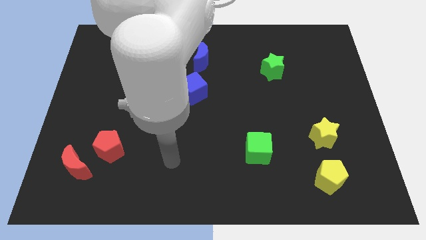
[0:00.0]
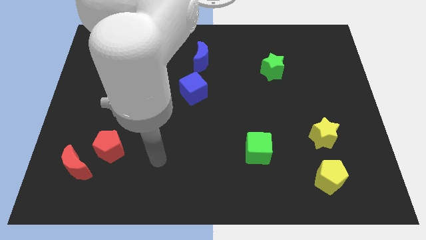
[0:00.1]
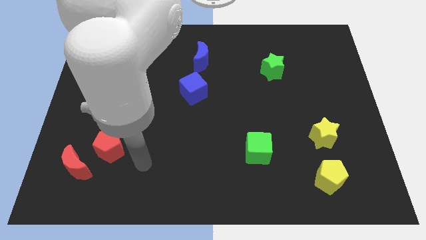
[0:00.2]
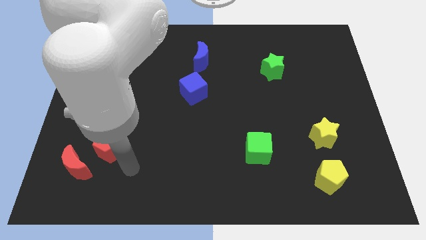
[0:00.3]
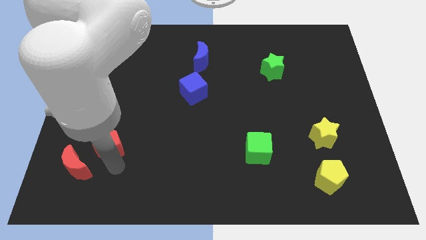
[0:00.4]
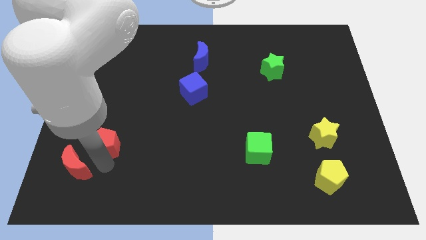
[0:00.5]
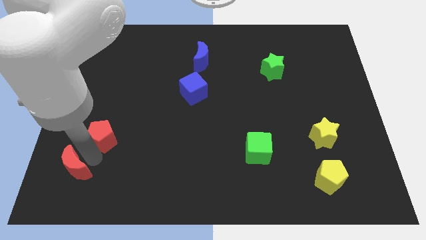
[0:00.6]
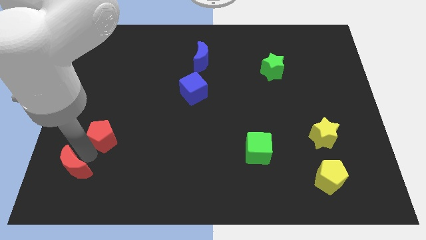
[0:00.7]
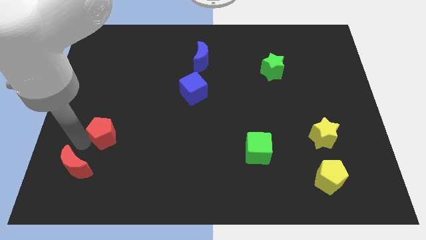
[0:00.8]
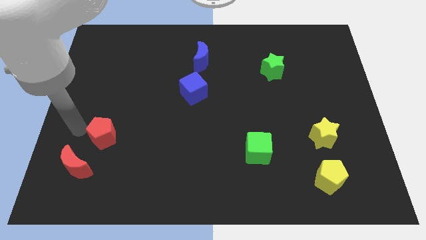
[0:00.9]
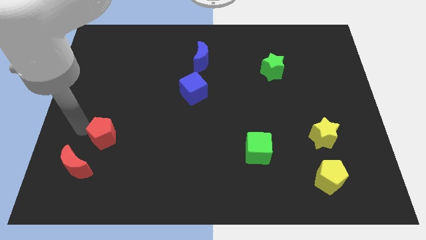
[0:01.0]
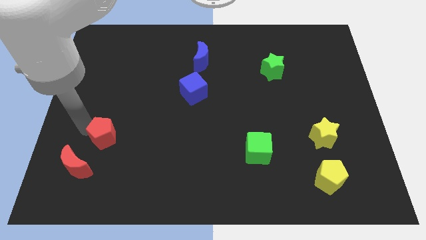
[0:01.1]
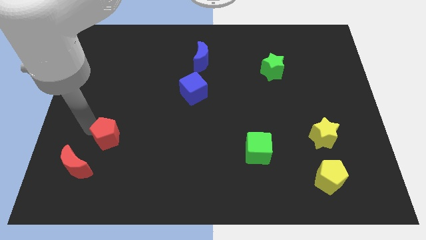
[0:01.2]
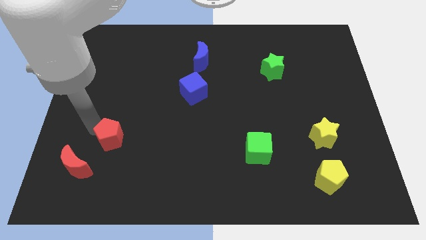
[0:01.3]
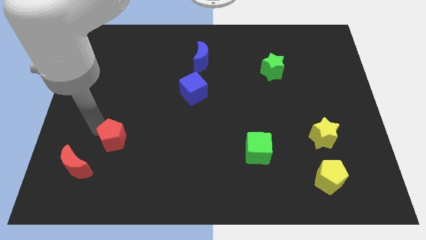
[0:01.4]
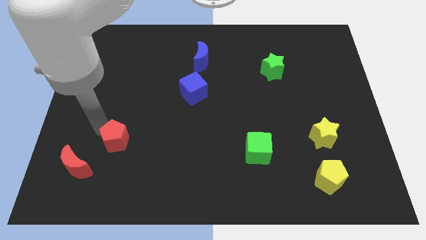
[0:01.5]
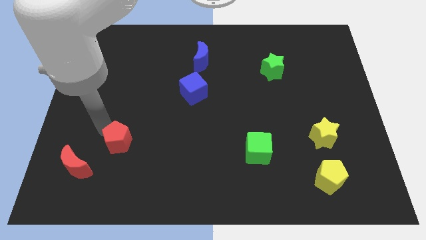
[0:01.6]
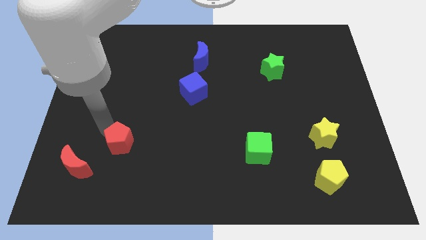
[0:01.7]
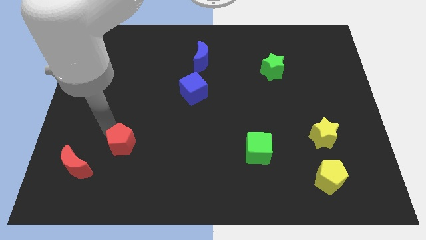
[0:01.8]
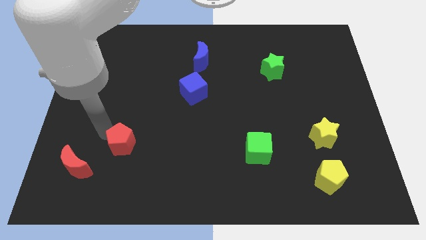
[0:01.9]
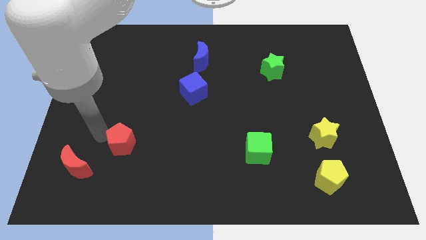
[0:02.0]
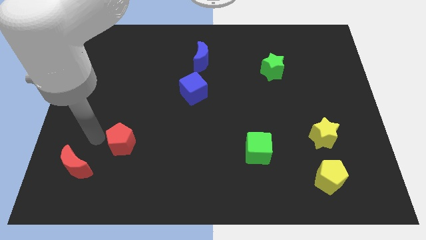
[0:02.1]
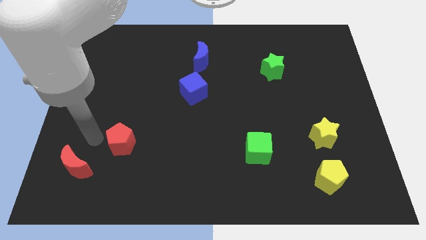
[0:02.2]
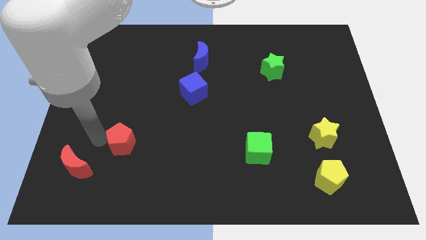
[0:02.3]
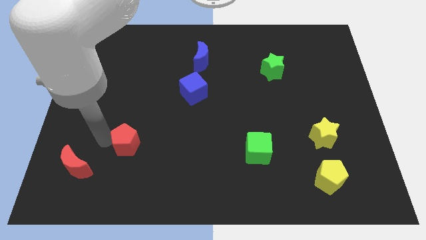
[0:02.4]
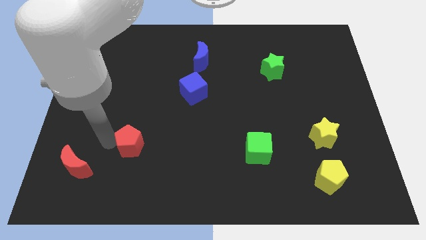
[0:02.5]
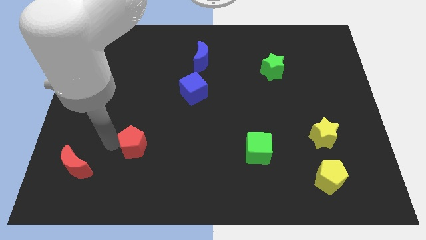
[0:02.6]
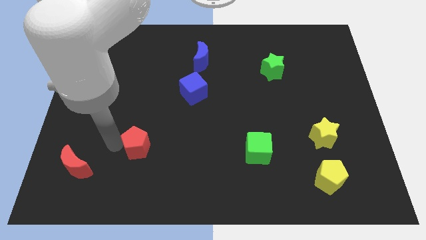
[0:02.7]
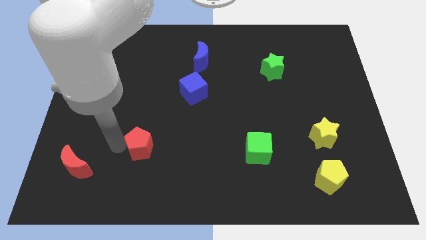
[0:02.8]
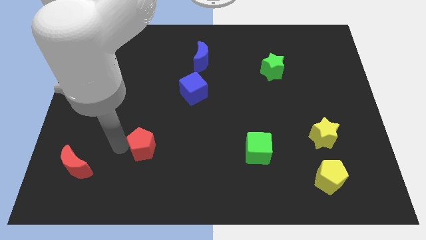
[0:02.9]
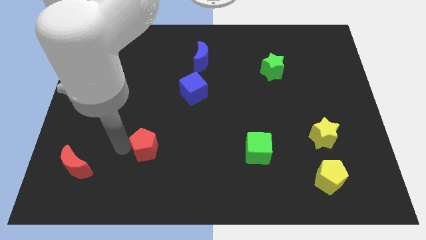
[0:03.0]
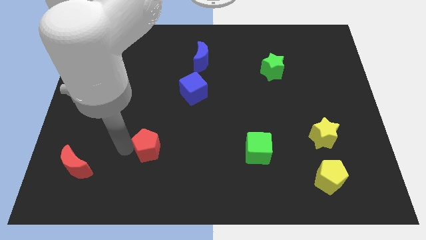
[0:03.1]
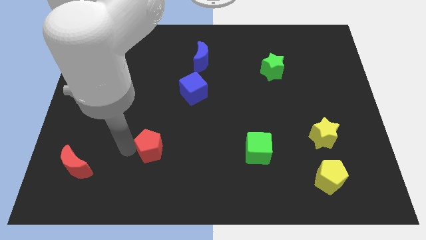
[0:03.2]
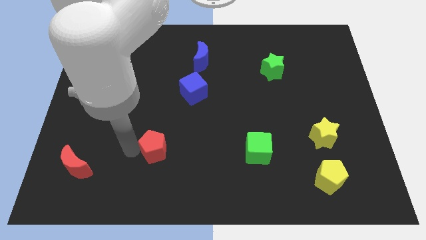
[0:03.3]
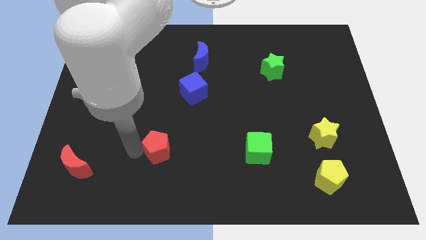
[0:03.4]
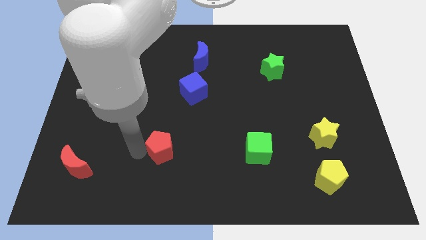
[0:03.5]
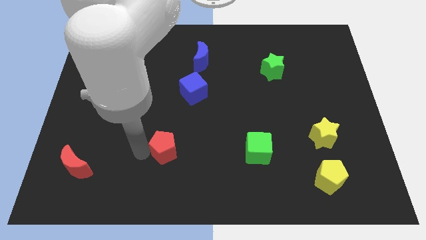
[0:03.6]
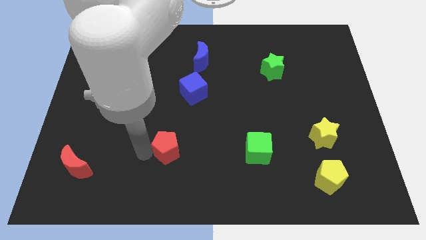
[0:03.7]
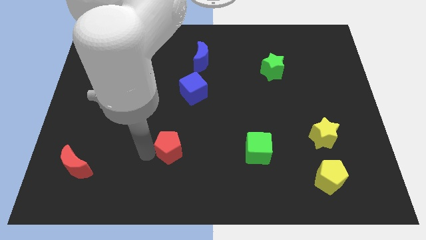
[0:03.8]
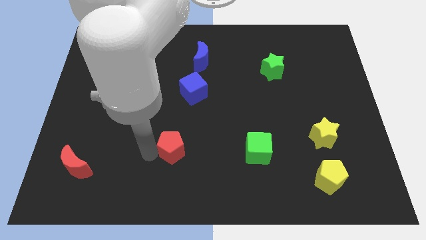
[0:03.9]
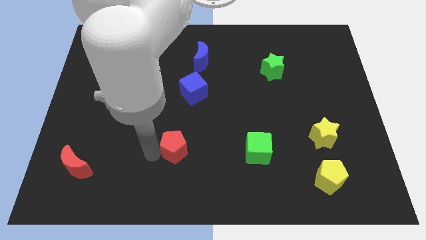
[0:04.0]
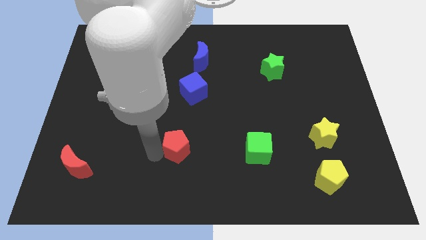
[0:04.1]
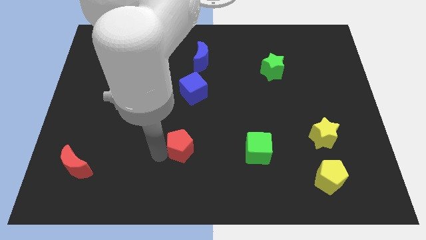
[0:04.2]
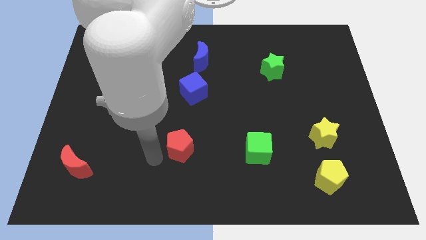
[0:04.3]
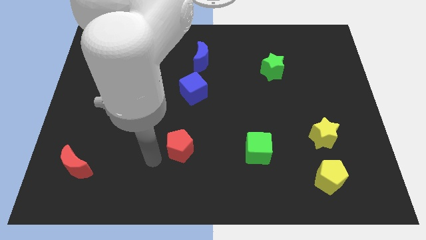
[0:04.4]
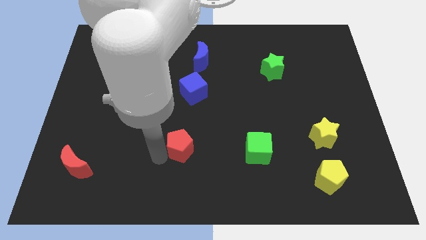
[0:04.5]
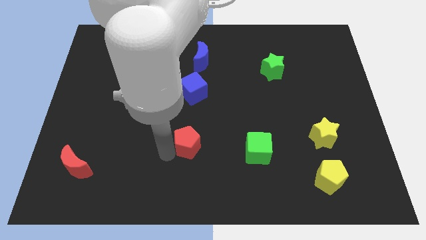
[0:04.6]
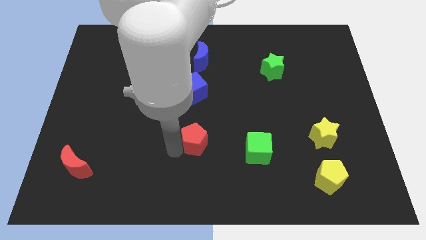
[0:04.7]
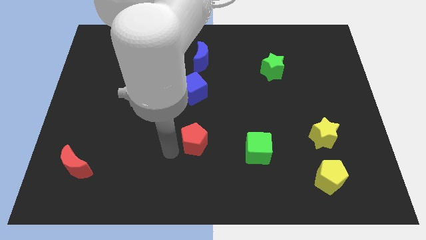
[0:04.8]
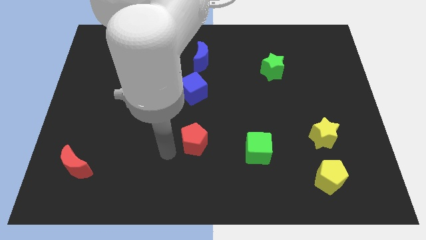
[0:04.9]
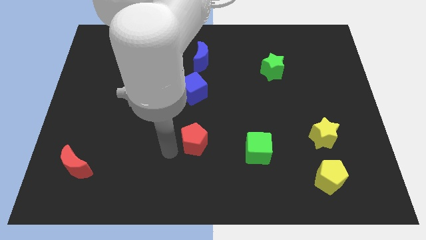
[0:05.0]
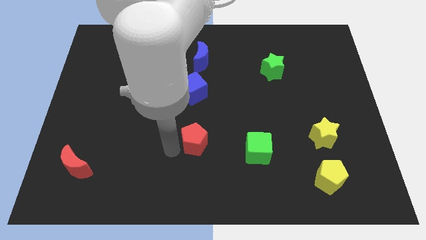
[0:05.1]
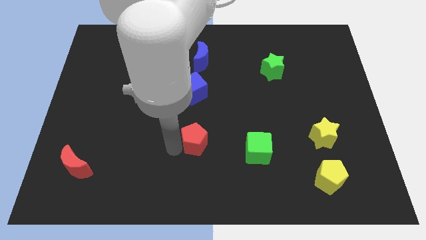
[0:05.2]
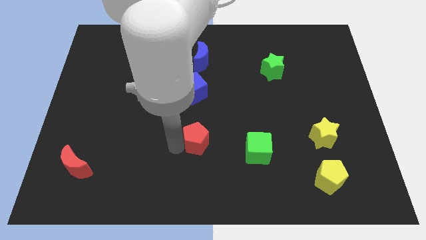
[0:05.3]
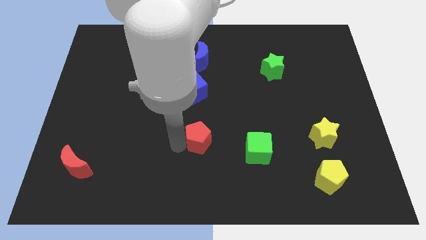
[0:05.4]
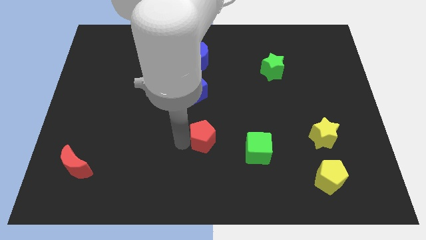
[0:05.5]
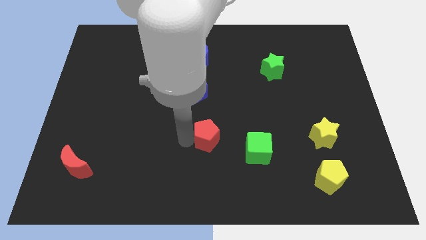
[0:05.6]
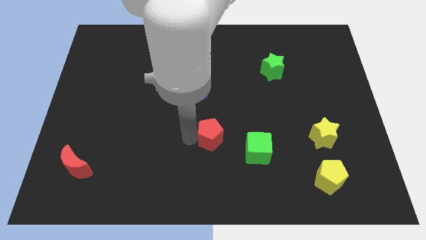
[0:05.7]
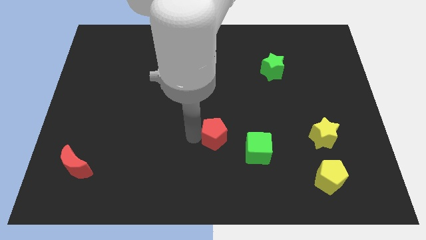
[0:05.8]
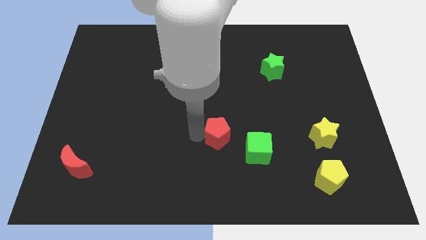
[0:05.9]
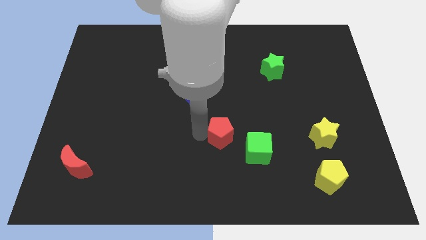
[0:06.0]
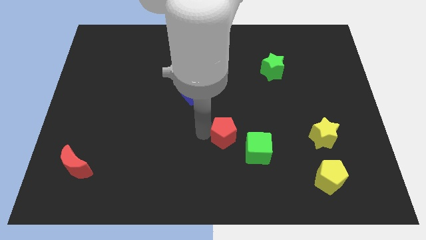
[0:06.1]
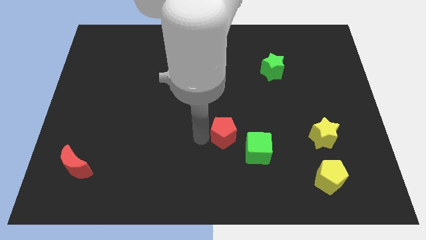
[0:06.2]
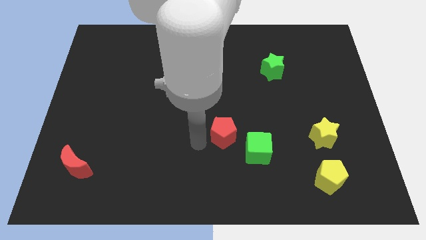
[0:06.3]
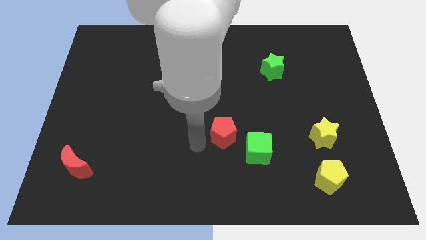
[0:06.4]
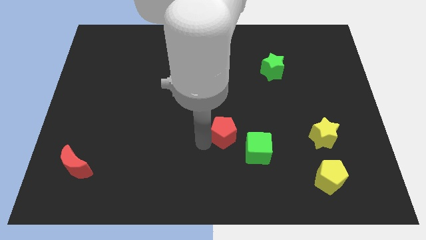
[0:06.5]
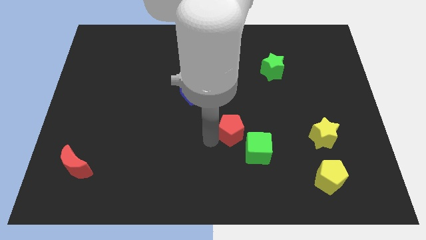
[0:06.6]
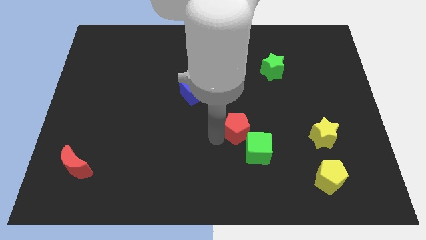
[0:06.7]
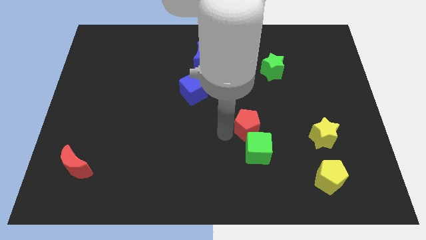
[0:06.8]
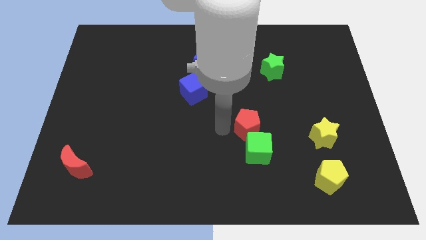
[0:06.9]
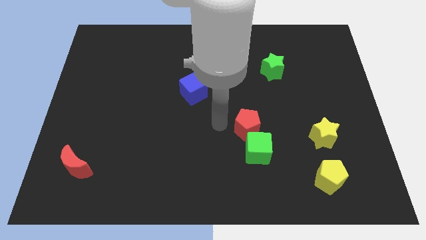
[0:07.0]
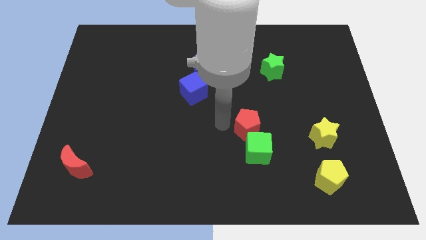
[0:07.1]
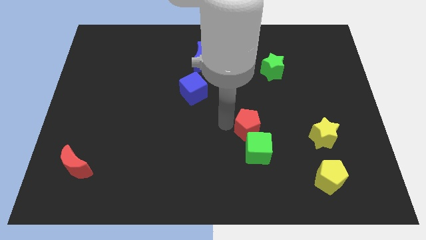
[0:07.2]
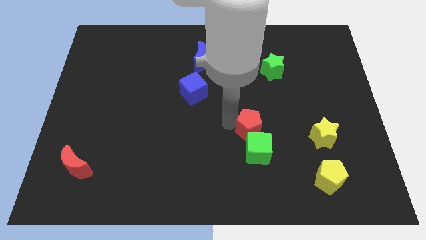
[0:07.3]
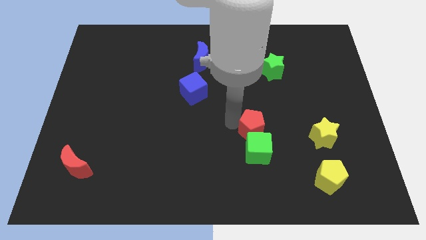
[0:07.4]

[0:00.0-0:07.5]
slide the red pentagon to the top right side of the green cube
